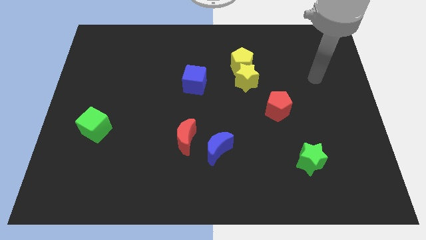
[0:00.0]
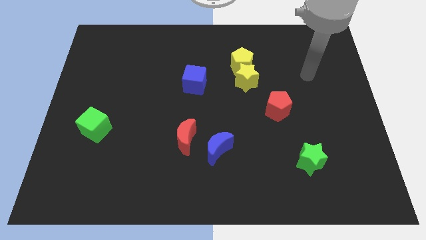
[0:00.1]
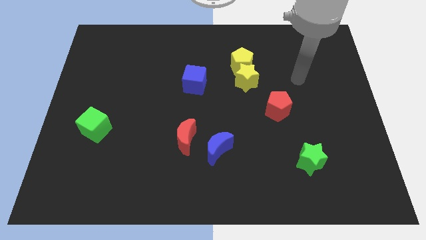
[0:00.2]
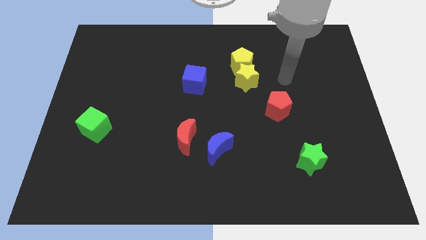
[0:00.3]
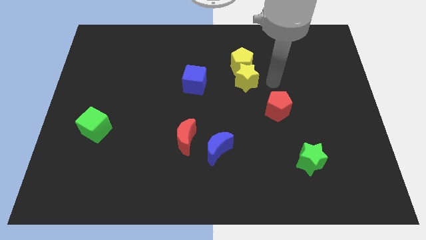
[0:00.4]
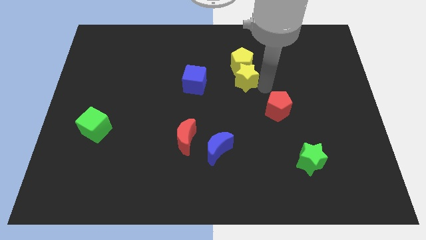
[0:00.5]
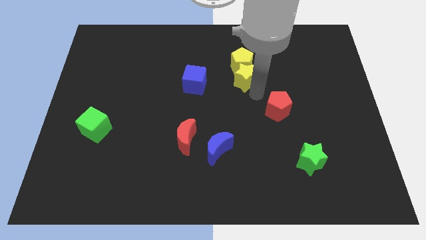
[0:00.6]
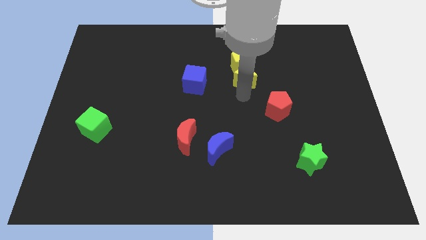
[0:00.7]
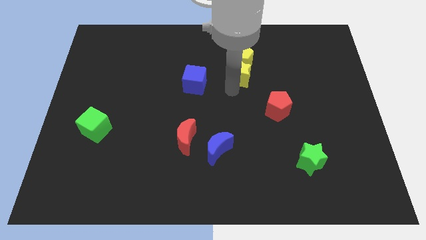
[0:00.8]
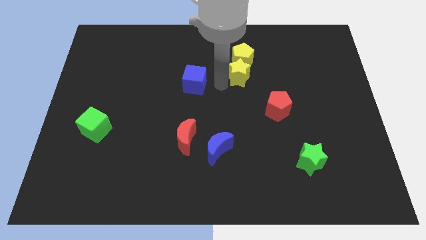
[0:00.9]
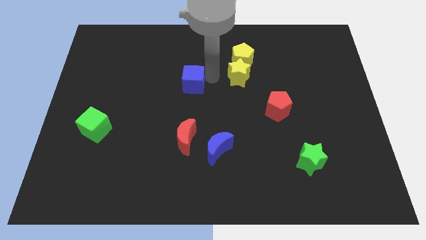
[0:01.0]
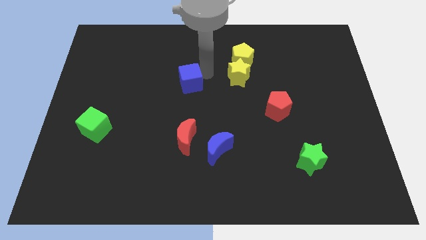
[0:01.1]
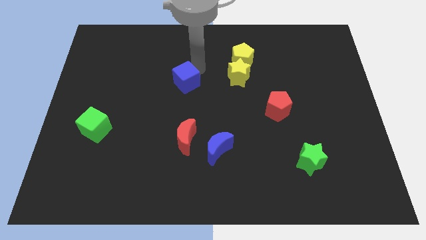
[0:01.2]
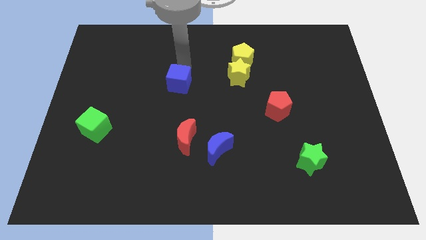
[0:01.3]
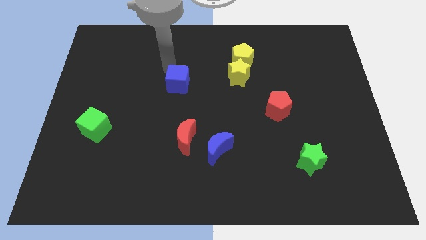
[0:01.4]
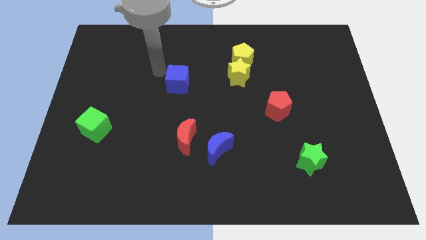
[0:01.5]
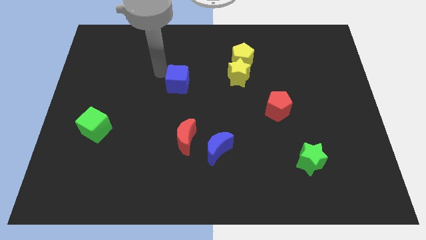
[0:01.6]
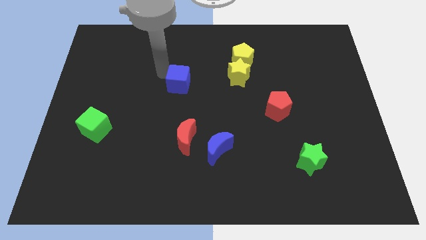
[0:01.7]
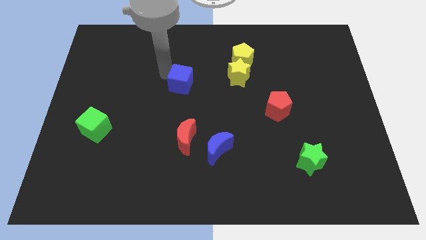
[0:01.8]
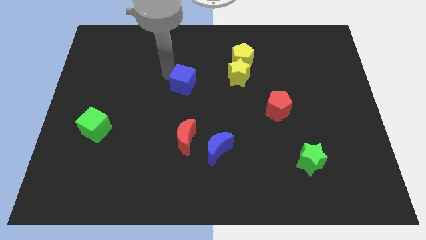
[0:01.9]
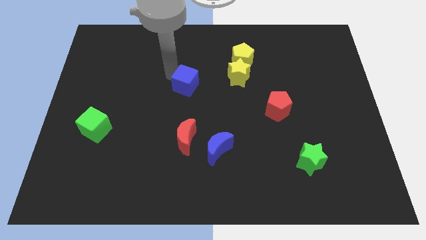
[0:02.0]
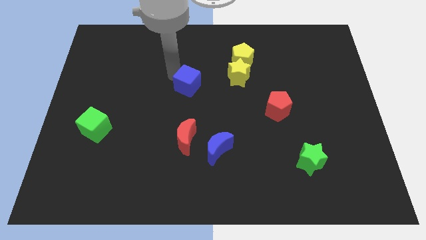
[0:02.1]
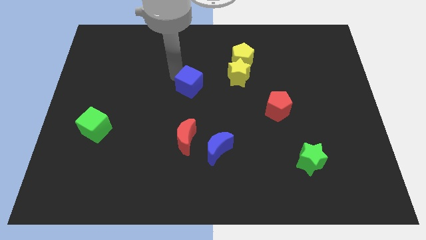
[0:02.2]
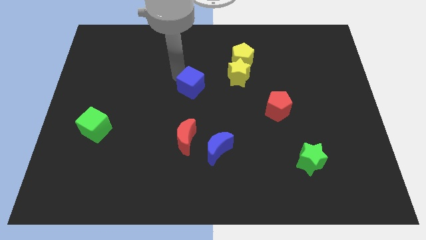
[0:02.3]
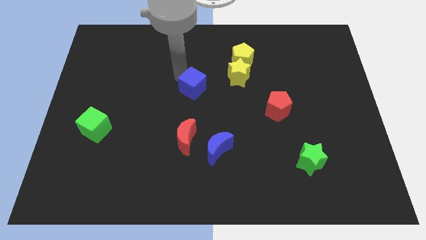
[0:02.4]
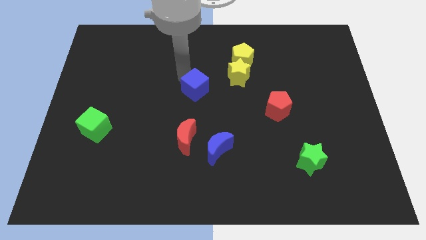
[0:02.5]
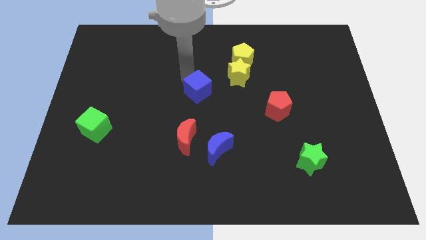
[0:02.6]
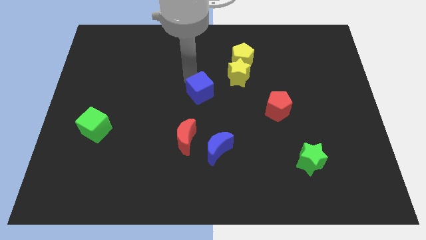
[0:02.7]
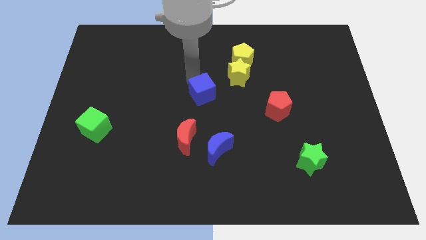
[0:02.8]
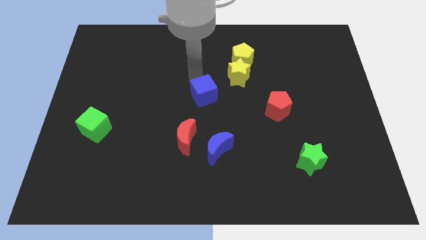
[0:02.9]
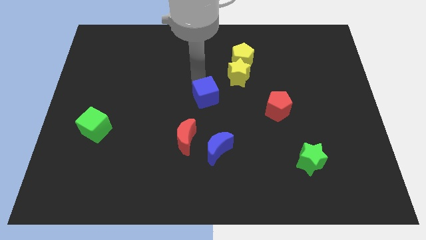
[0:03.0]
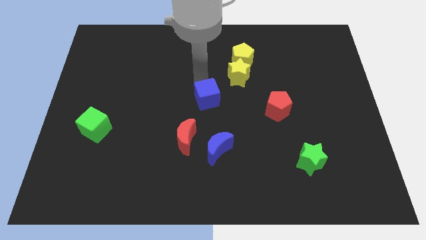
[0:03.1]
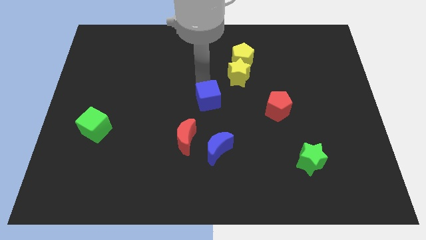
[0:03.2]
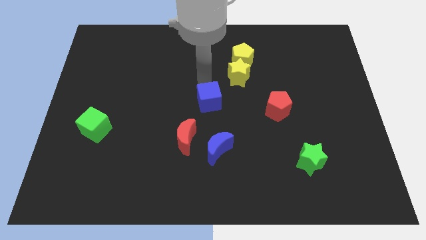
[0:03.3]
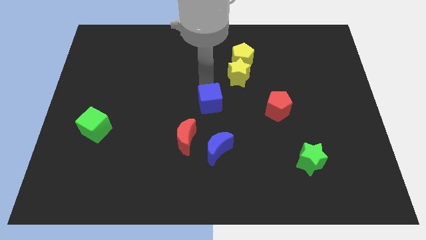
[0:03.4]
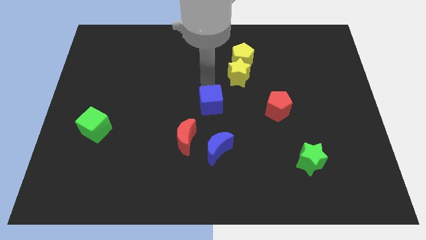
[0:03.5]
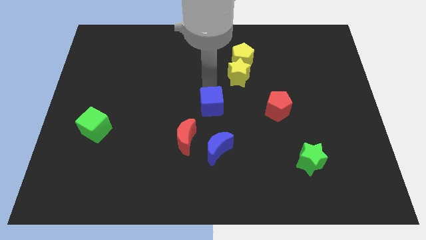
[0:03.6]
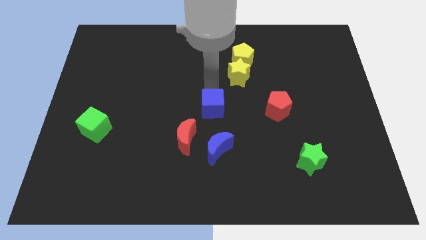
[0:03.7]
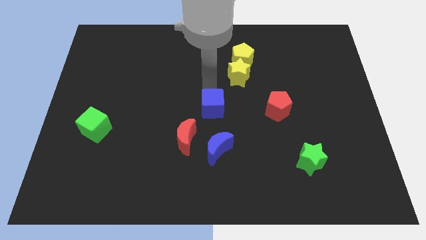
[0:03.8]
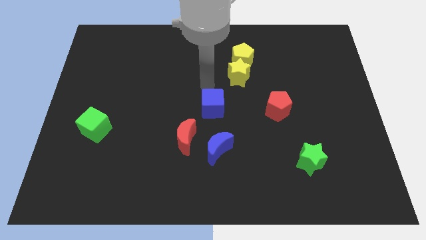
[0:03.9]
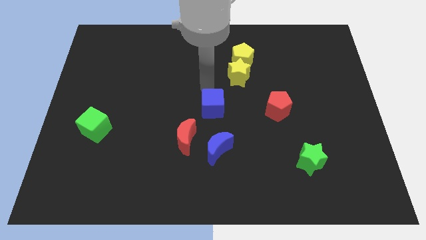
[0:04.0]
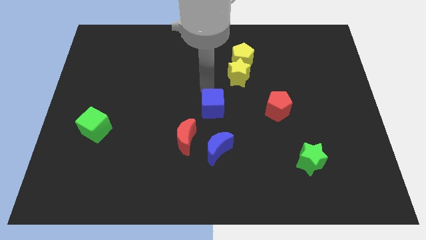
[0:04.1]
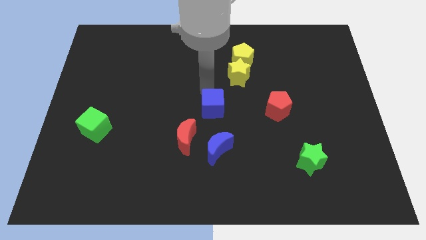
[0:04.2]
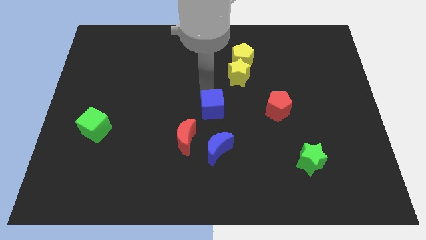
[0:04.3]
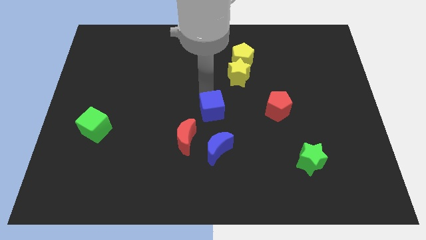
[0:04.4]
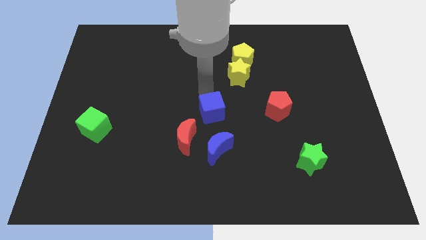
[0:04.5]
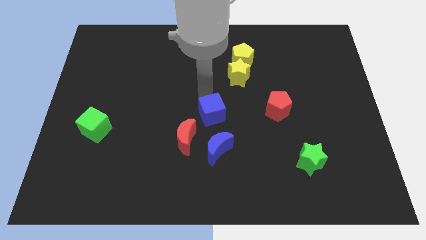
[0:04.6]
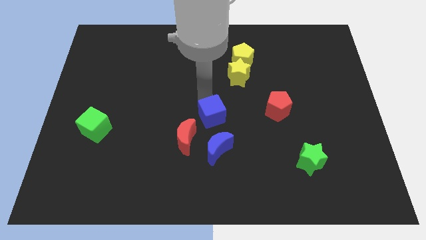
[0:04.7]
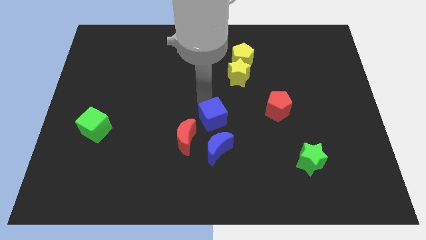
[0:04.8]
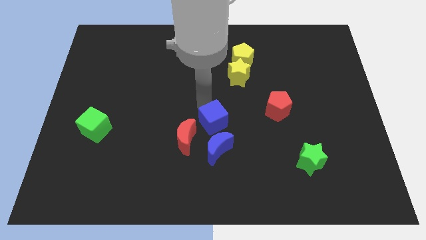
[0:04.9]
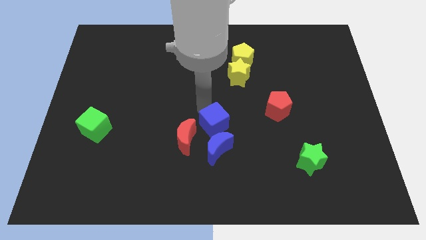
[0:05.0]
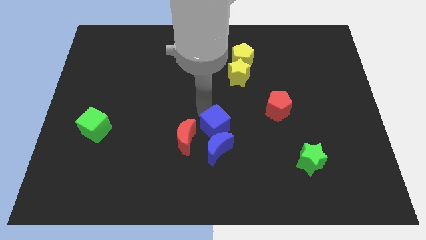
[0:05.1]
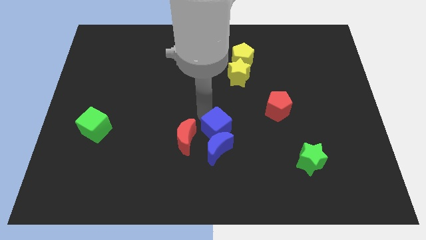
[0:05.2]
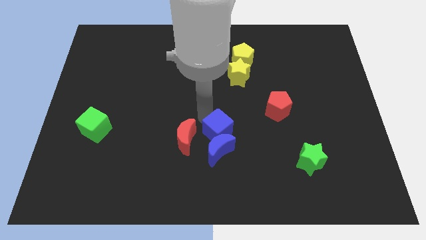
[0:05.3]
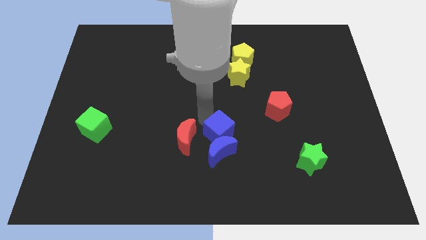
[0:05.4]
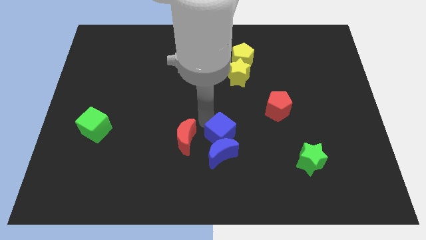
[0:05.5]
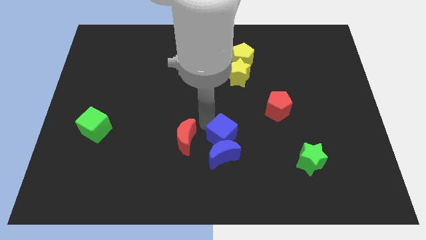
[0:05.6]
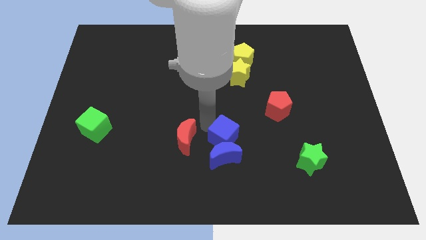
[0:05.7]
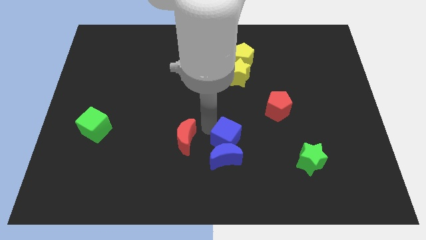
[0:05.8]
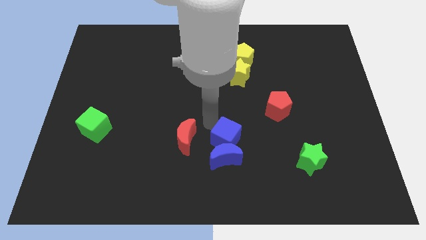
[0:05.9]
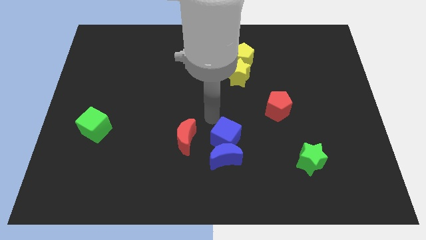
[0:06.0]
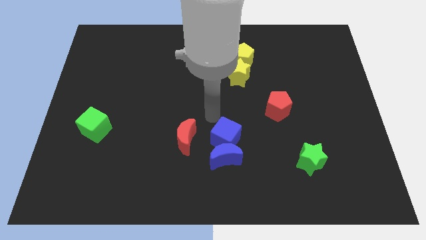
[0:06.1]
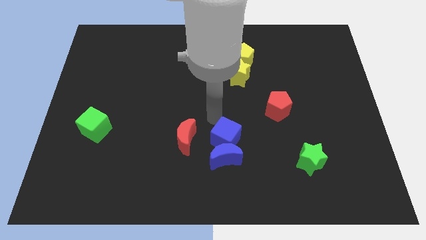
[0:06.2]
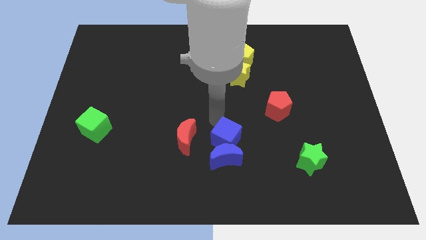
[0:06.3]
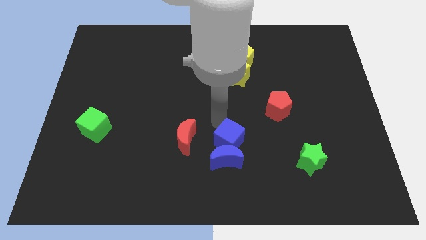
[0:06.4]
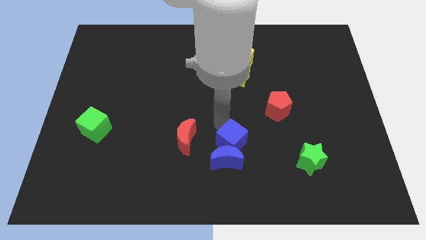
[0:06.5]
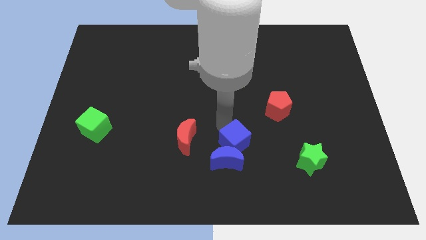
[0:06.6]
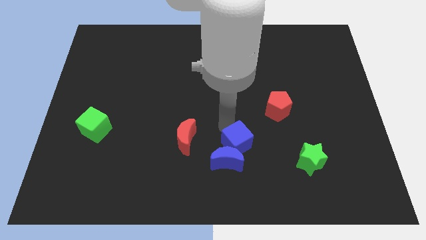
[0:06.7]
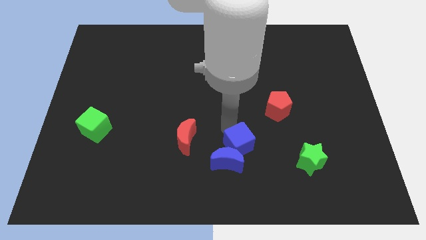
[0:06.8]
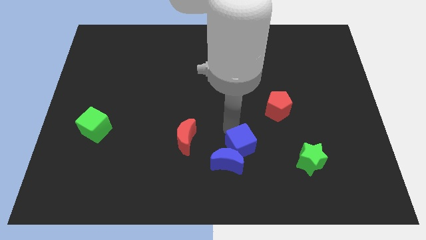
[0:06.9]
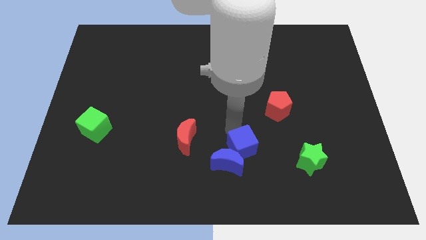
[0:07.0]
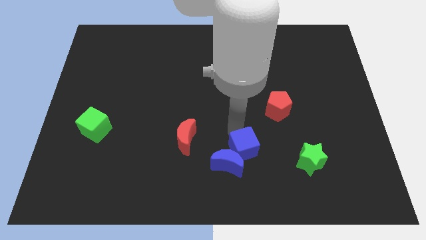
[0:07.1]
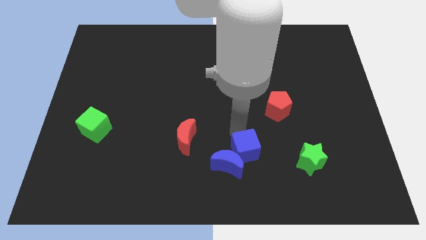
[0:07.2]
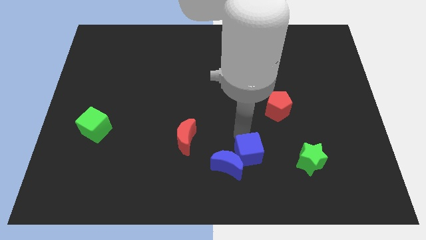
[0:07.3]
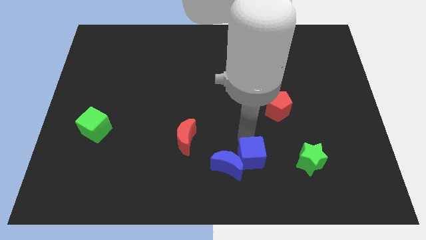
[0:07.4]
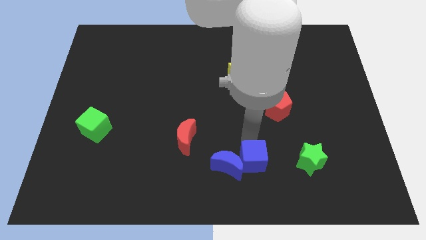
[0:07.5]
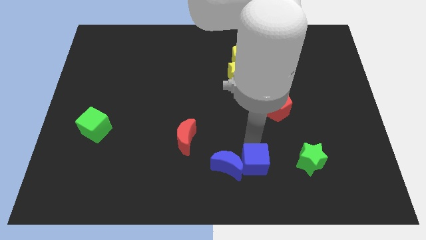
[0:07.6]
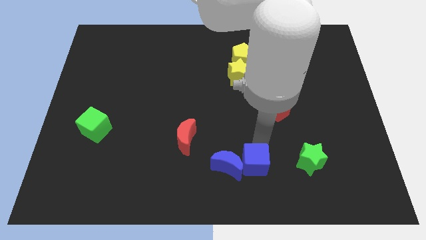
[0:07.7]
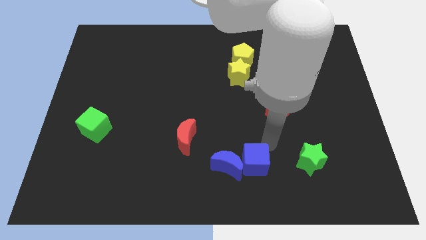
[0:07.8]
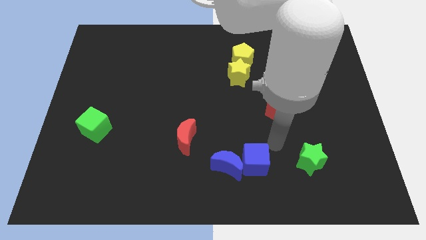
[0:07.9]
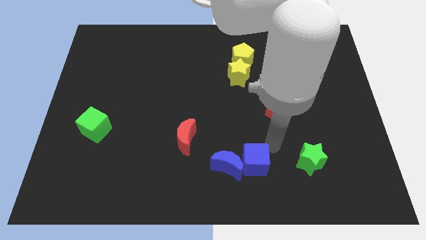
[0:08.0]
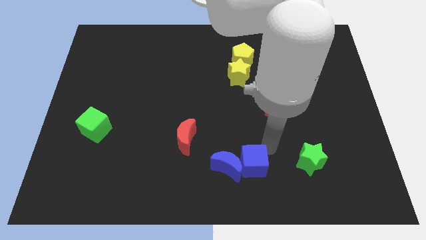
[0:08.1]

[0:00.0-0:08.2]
put the blue cube to the bottom side
